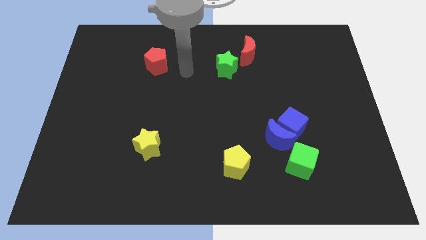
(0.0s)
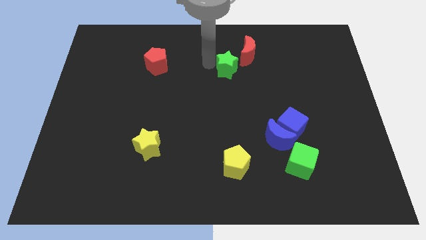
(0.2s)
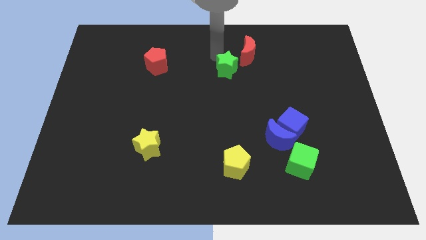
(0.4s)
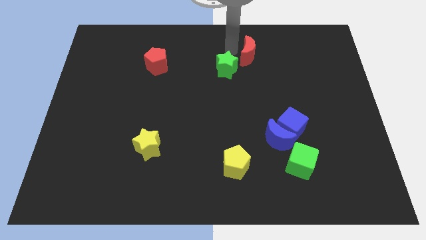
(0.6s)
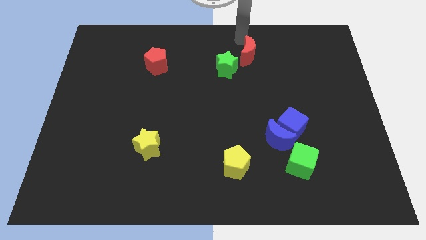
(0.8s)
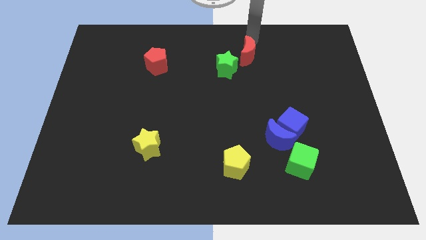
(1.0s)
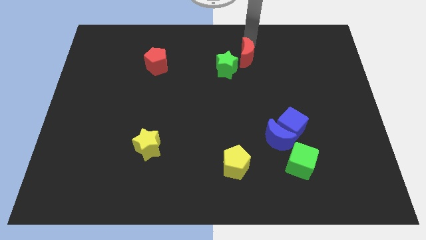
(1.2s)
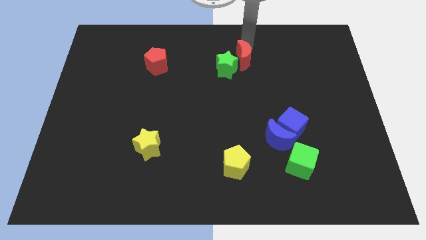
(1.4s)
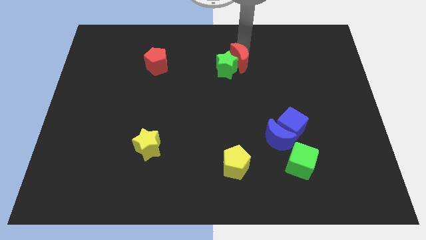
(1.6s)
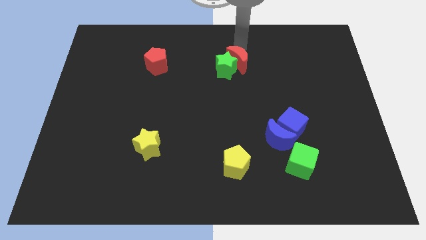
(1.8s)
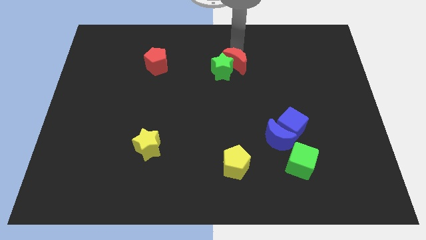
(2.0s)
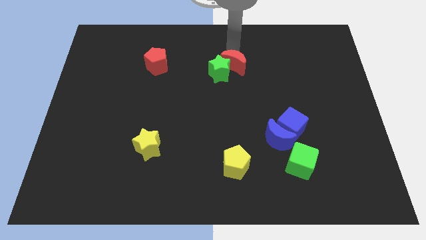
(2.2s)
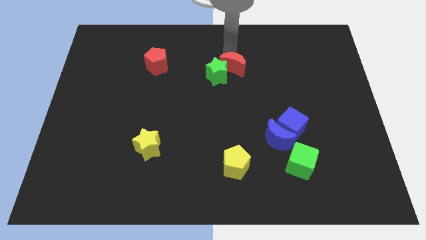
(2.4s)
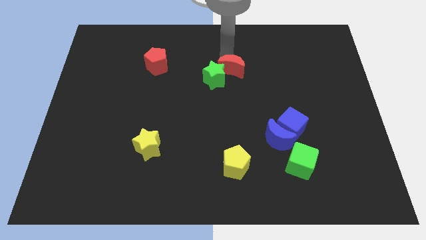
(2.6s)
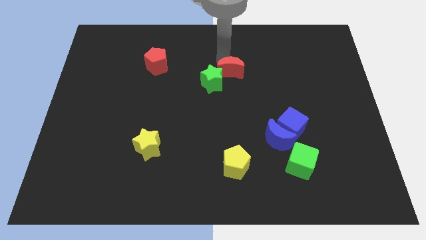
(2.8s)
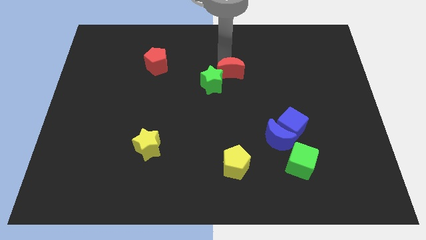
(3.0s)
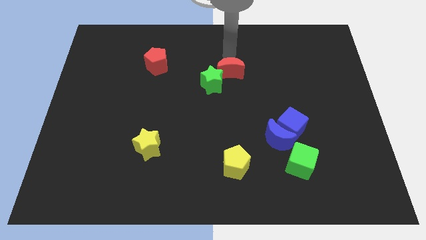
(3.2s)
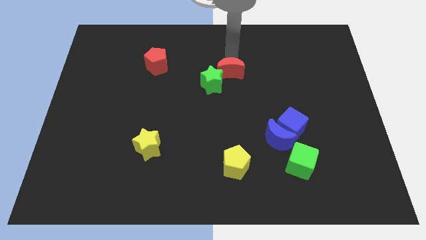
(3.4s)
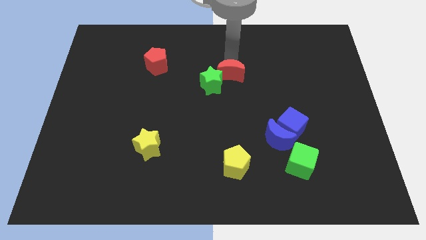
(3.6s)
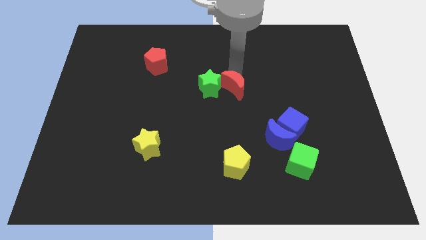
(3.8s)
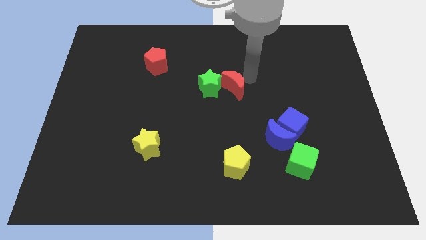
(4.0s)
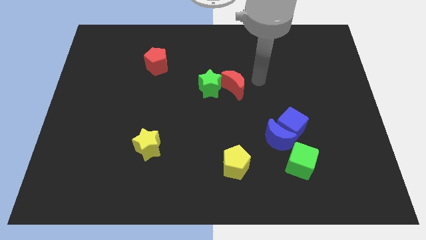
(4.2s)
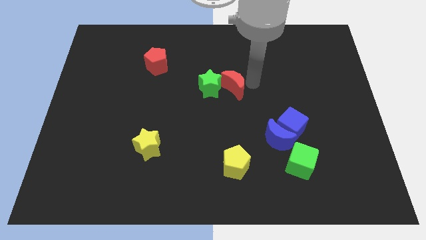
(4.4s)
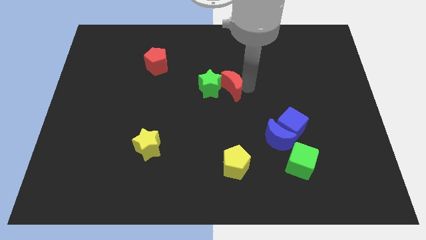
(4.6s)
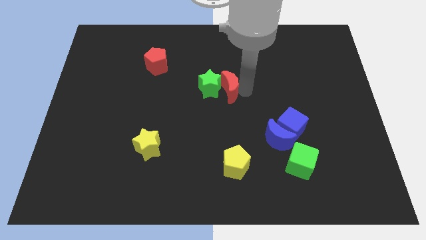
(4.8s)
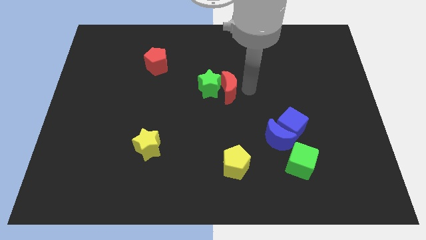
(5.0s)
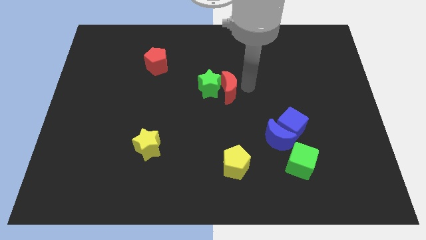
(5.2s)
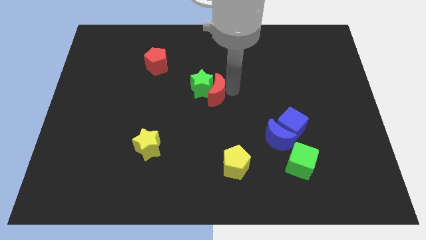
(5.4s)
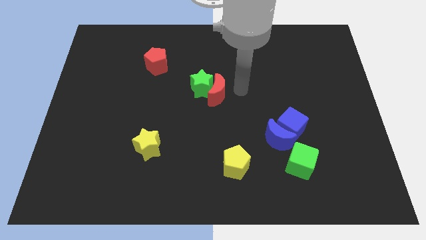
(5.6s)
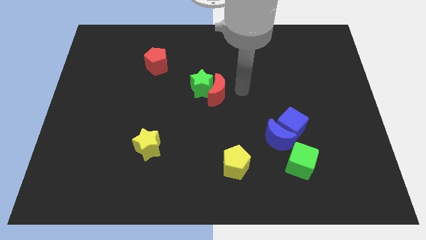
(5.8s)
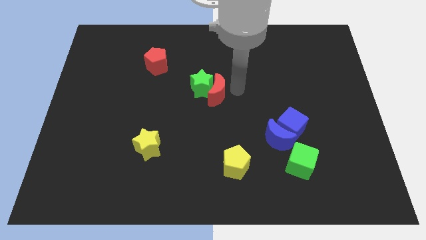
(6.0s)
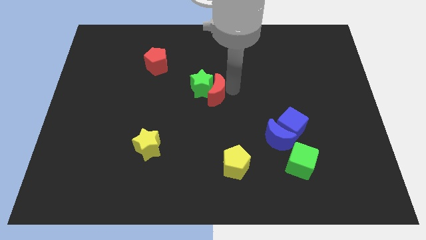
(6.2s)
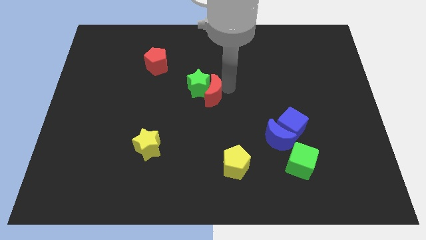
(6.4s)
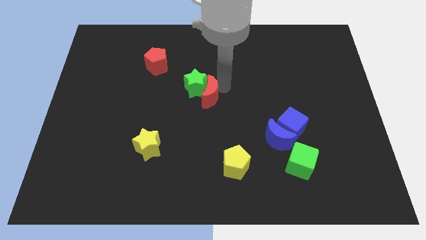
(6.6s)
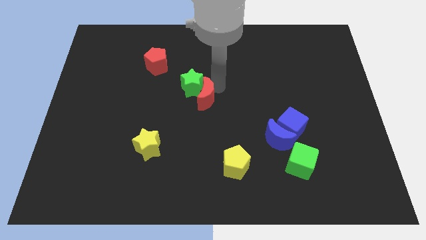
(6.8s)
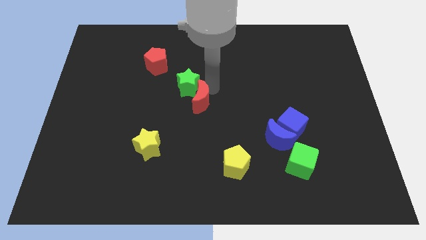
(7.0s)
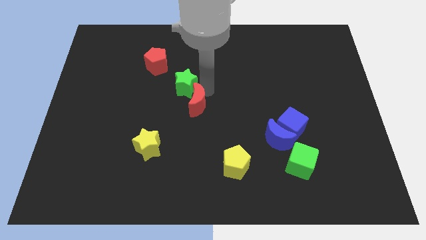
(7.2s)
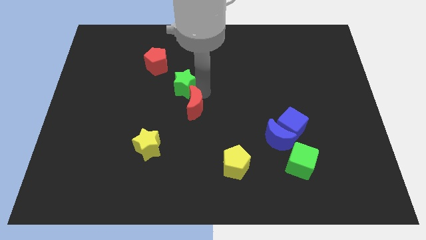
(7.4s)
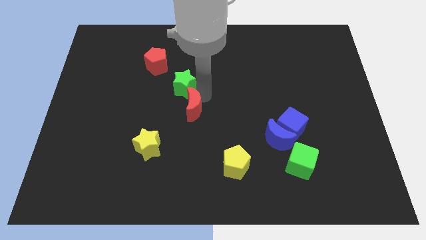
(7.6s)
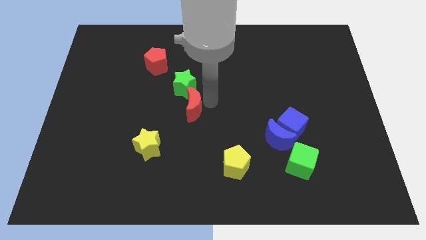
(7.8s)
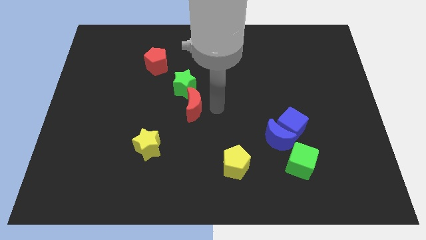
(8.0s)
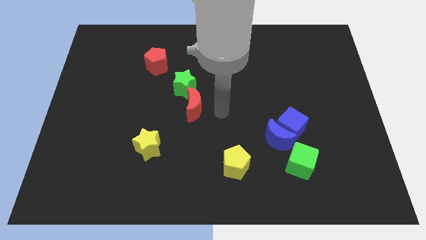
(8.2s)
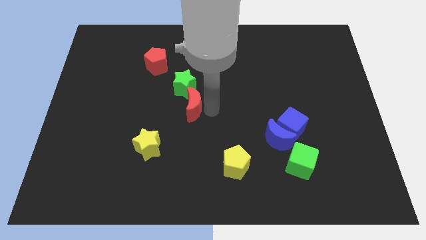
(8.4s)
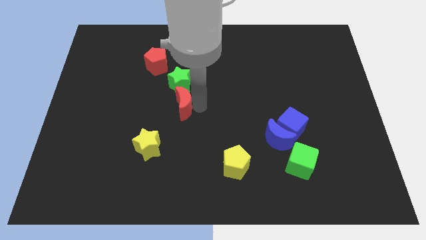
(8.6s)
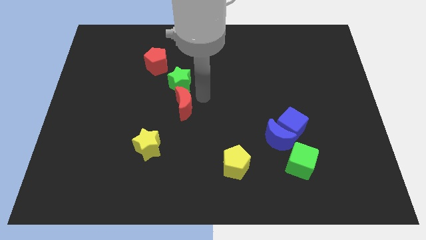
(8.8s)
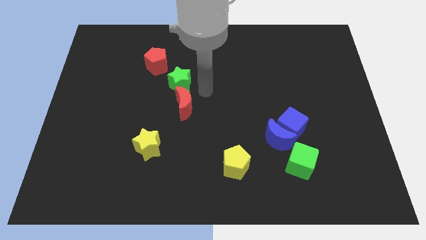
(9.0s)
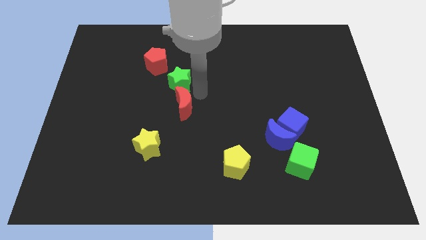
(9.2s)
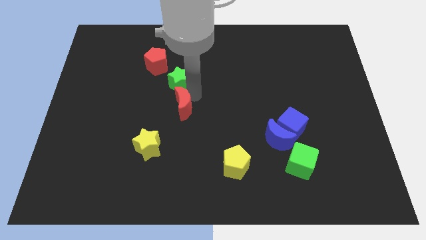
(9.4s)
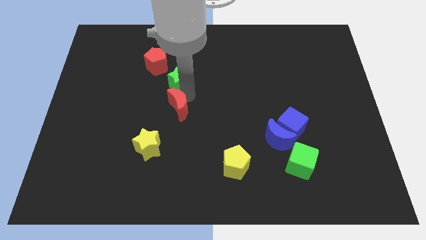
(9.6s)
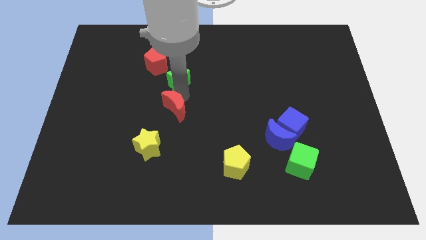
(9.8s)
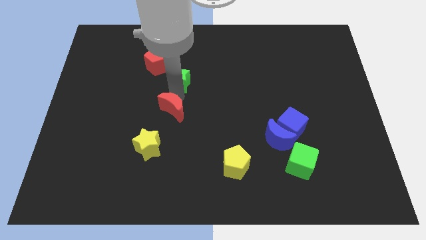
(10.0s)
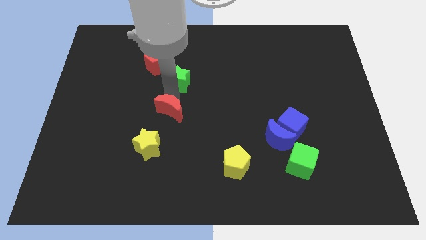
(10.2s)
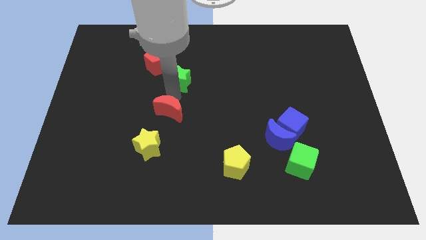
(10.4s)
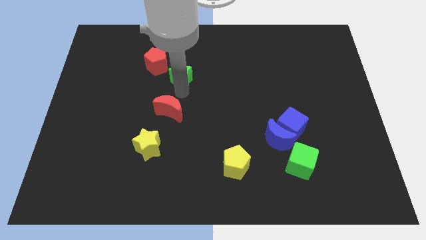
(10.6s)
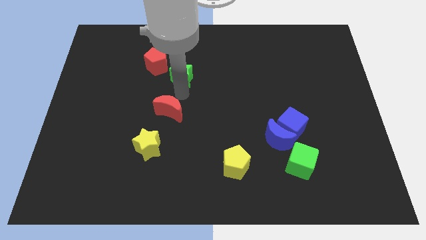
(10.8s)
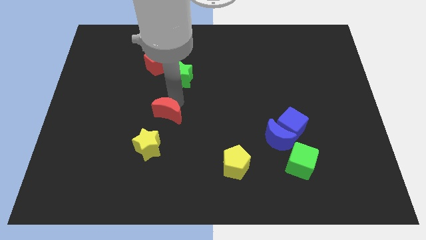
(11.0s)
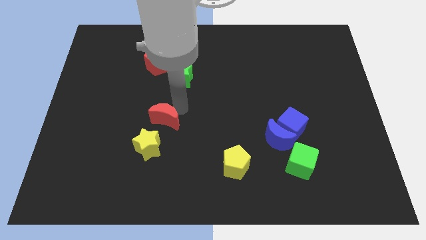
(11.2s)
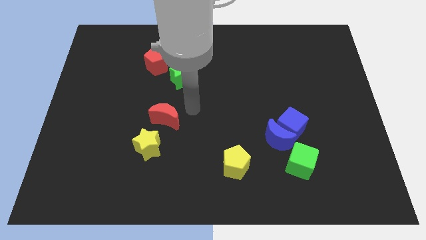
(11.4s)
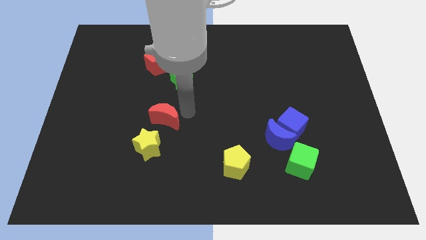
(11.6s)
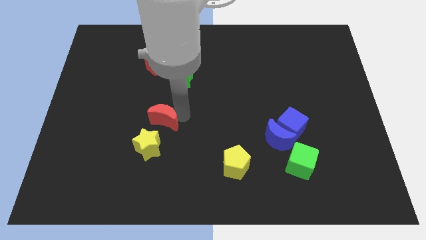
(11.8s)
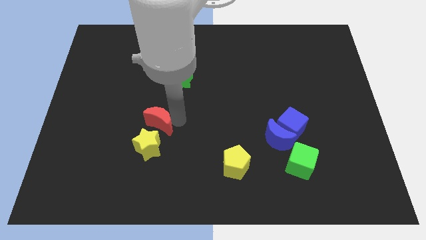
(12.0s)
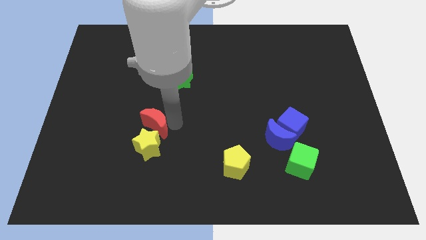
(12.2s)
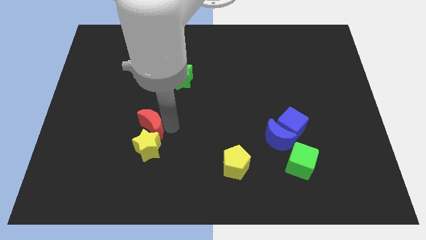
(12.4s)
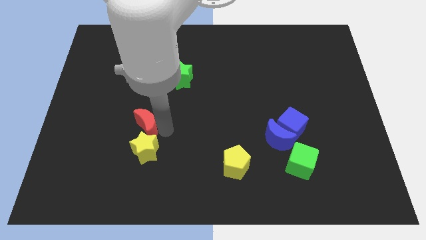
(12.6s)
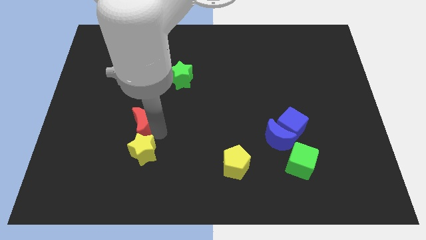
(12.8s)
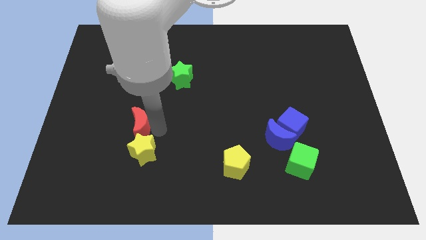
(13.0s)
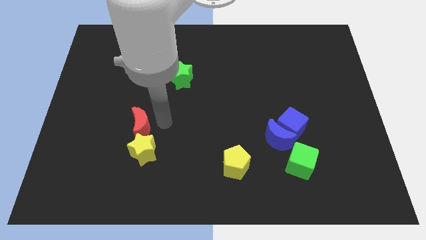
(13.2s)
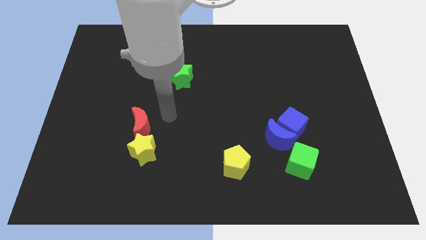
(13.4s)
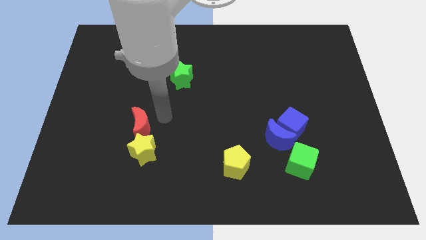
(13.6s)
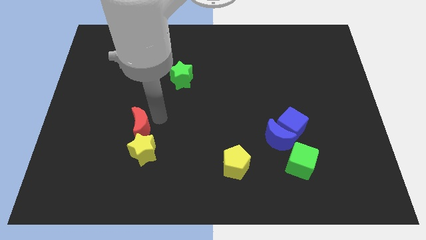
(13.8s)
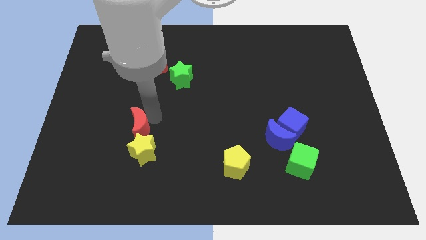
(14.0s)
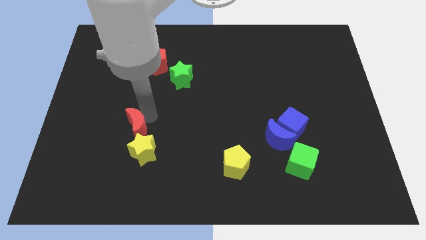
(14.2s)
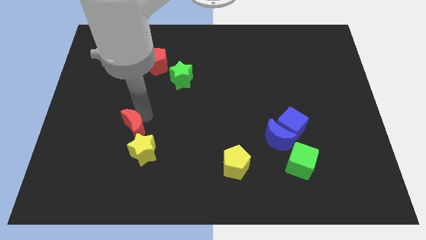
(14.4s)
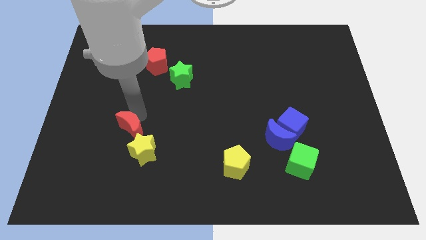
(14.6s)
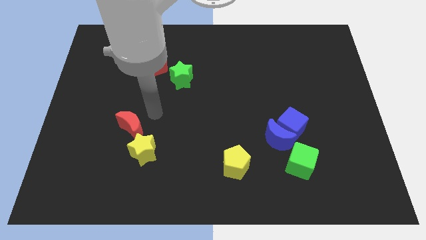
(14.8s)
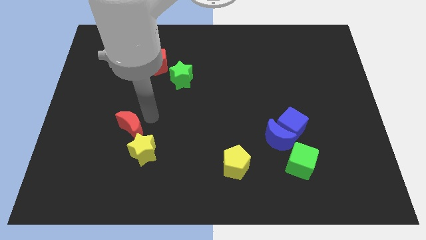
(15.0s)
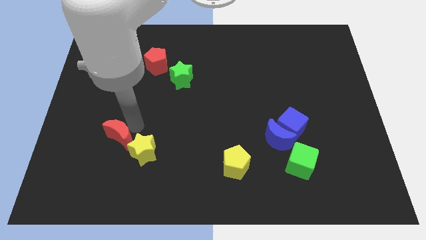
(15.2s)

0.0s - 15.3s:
move the red moon to the left side of the yellow star
